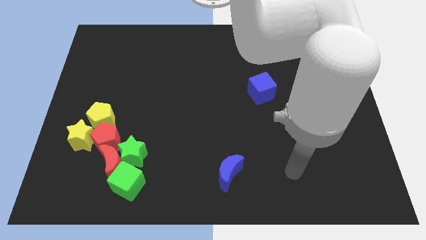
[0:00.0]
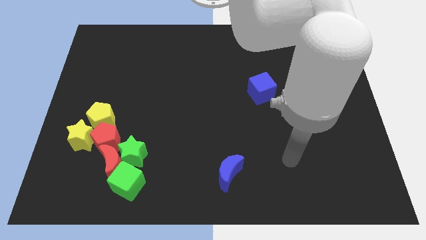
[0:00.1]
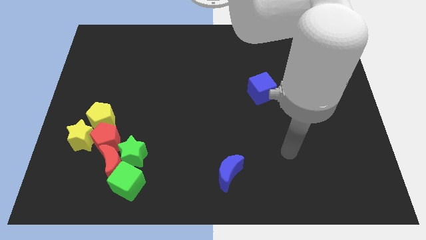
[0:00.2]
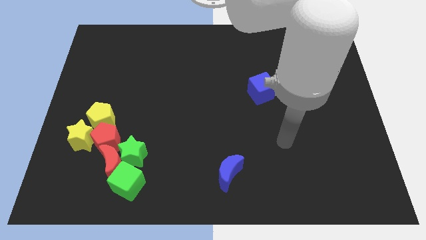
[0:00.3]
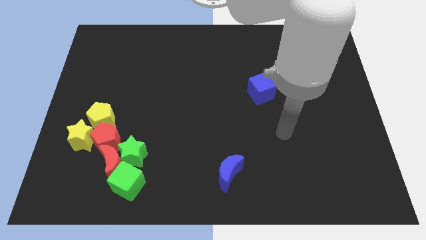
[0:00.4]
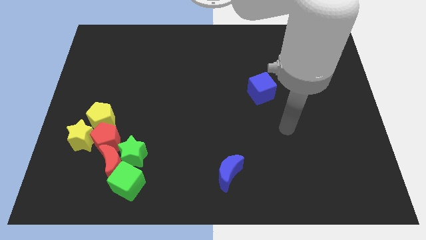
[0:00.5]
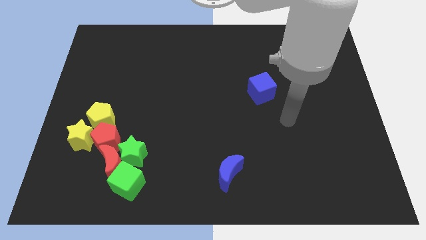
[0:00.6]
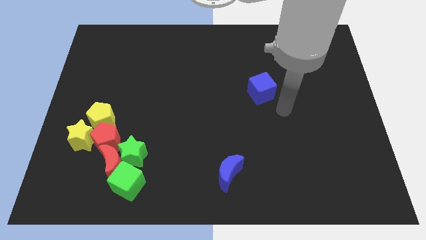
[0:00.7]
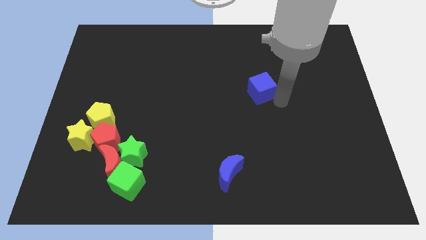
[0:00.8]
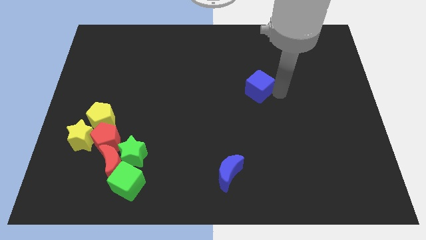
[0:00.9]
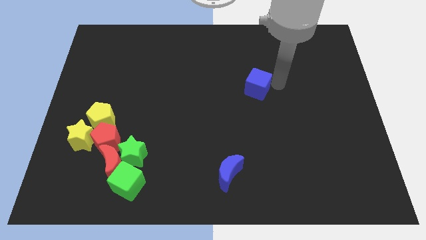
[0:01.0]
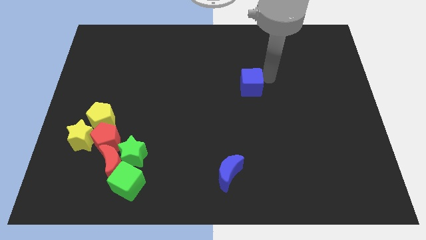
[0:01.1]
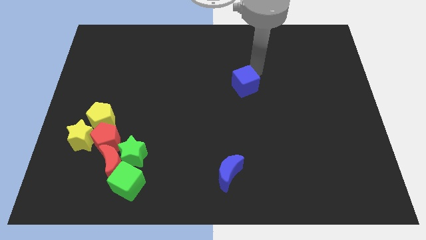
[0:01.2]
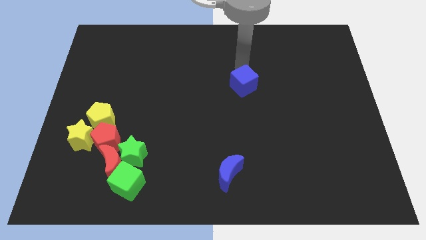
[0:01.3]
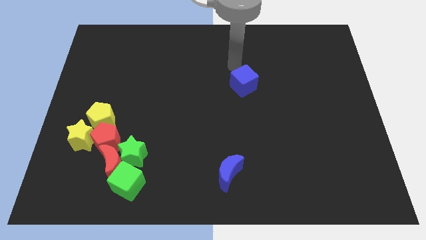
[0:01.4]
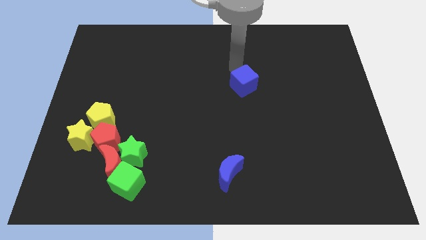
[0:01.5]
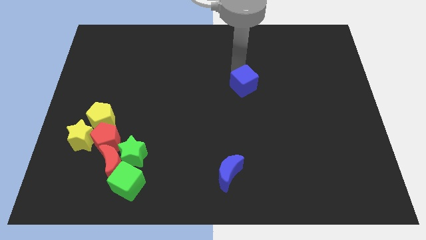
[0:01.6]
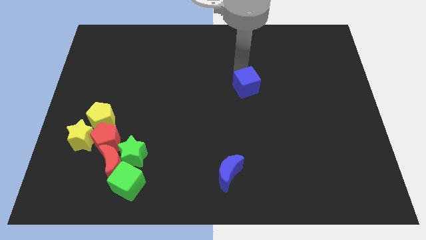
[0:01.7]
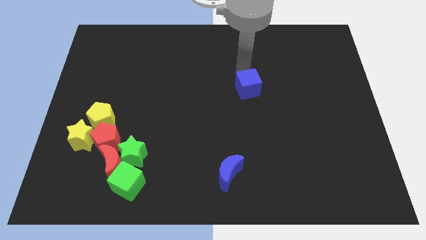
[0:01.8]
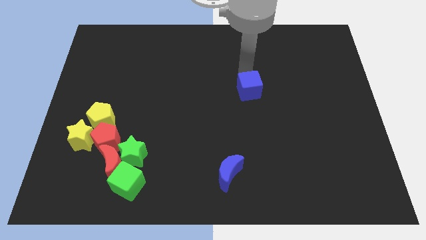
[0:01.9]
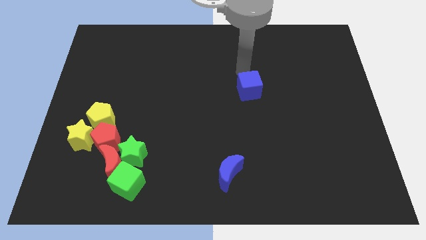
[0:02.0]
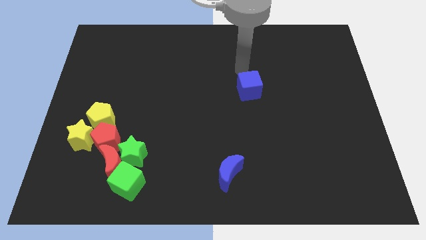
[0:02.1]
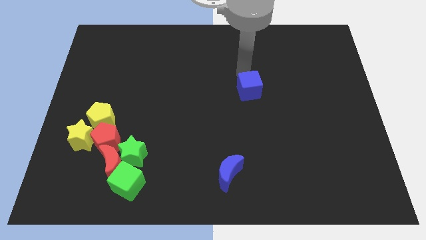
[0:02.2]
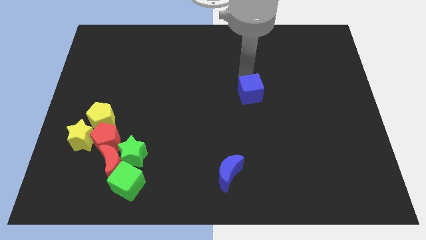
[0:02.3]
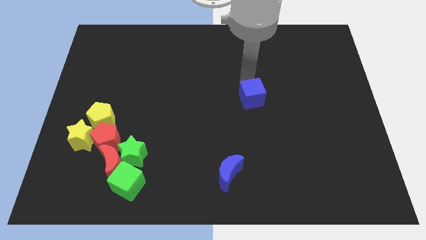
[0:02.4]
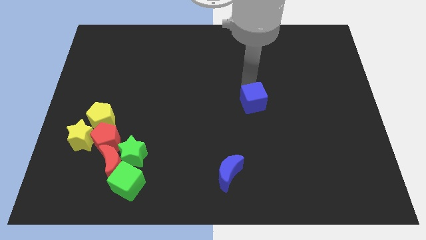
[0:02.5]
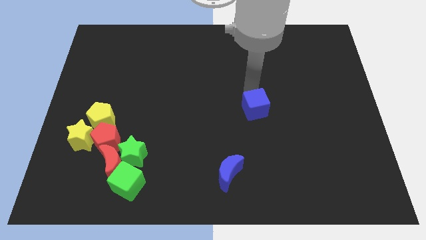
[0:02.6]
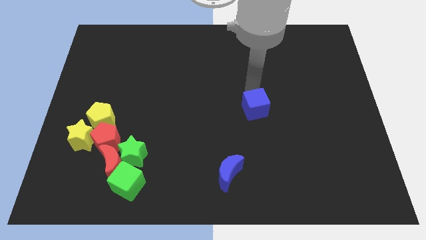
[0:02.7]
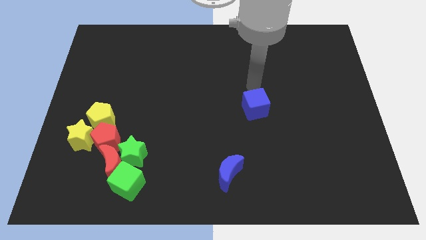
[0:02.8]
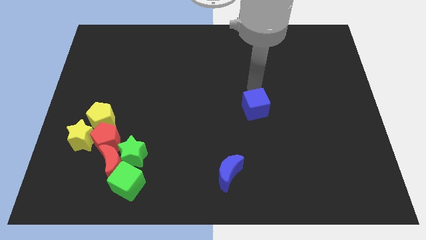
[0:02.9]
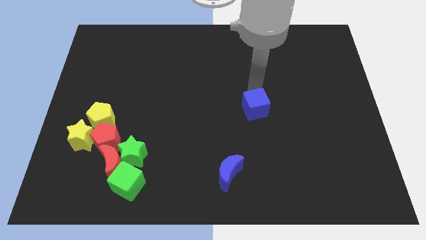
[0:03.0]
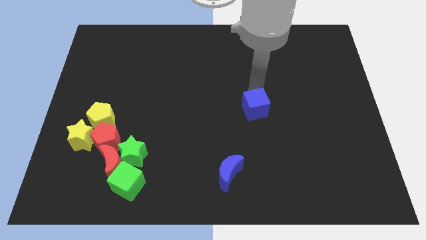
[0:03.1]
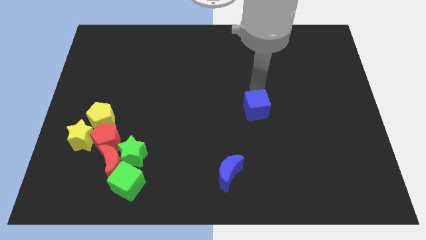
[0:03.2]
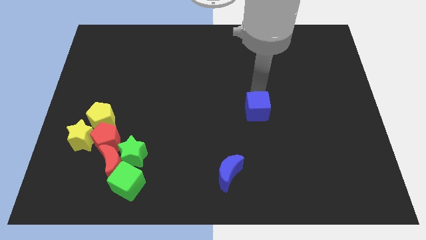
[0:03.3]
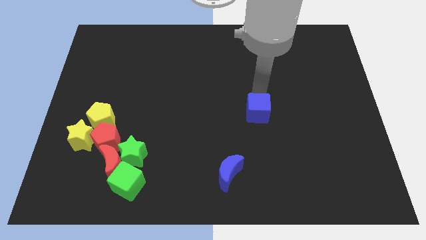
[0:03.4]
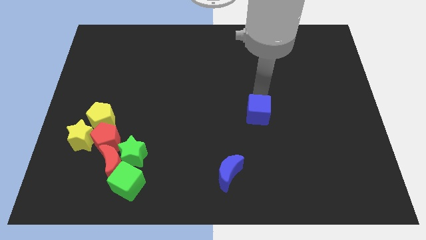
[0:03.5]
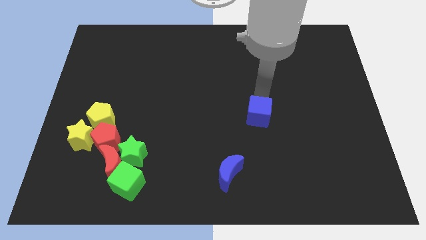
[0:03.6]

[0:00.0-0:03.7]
slide the blue cube a little down

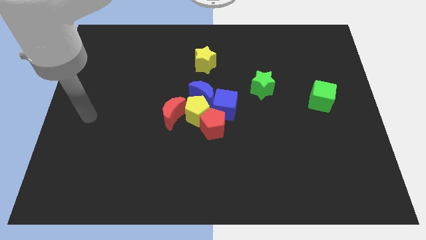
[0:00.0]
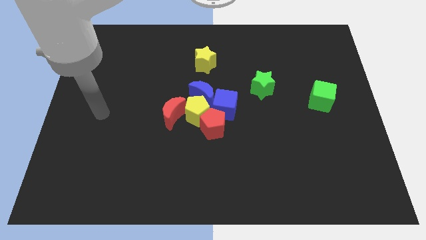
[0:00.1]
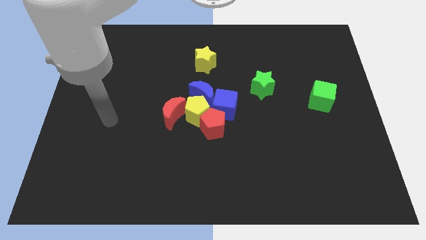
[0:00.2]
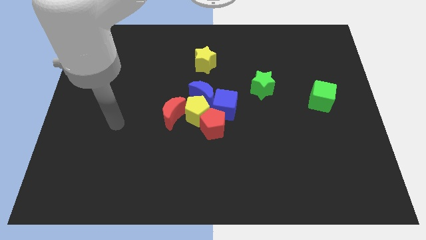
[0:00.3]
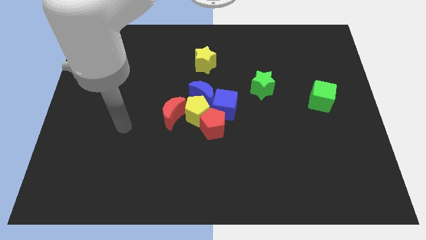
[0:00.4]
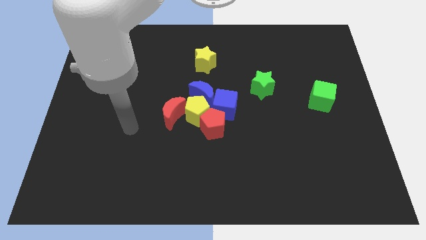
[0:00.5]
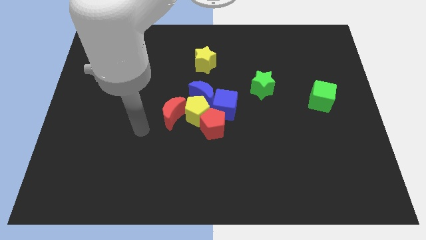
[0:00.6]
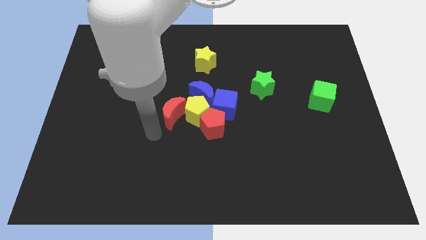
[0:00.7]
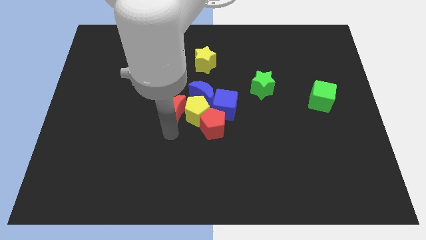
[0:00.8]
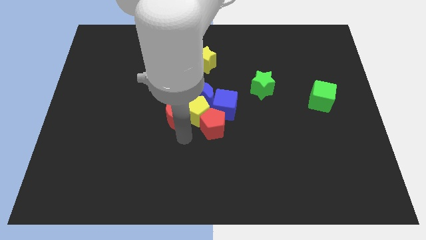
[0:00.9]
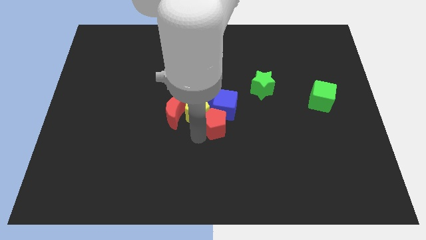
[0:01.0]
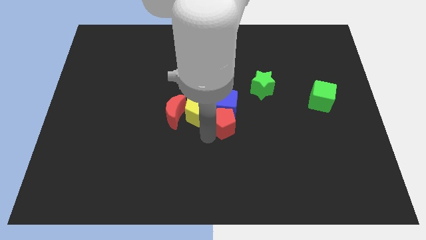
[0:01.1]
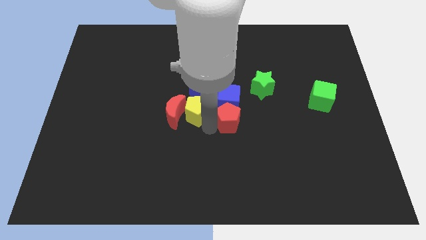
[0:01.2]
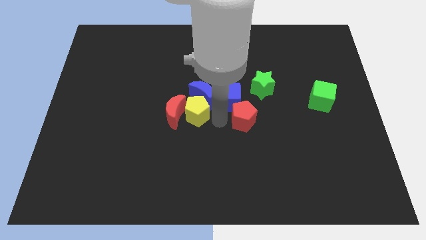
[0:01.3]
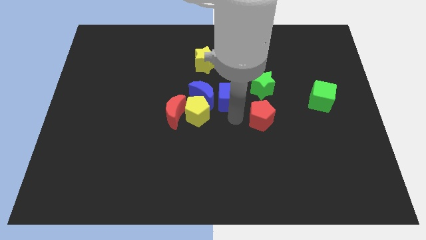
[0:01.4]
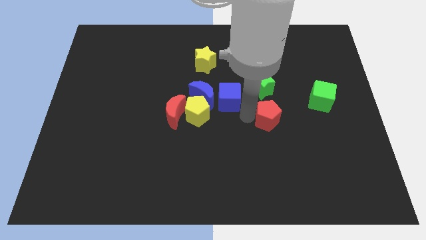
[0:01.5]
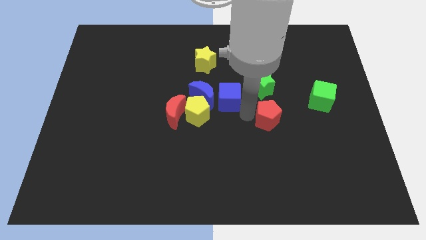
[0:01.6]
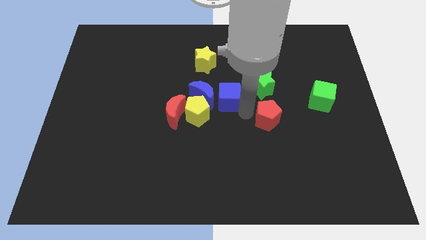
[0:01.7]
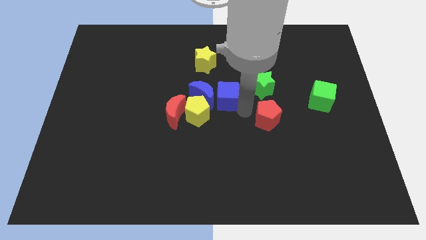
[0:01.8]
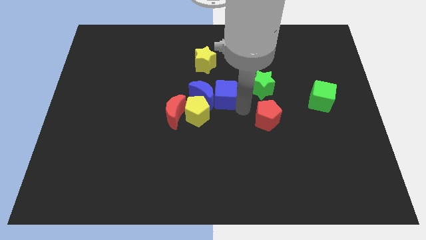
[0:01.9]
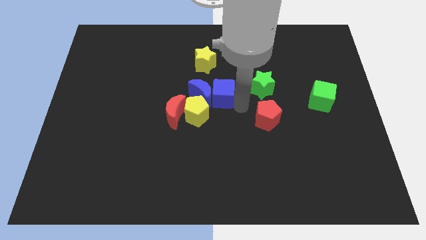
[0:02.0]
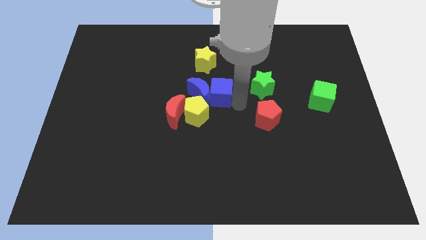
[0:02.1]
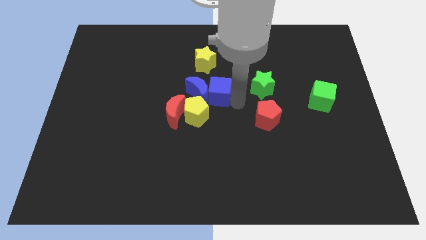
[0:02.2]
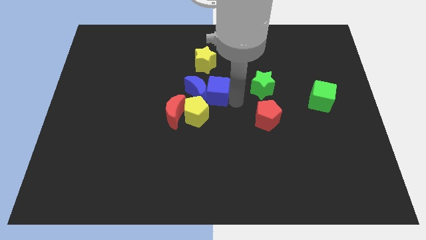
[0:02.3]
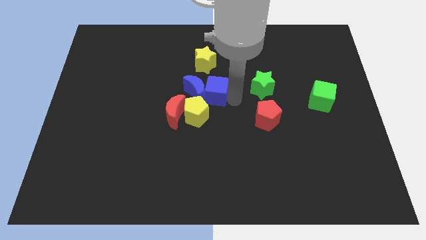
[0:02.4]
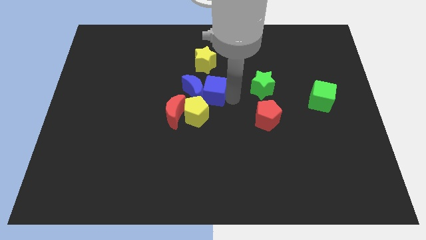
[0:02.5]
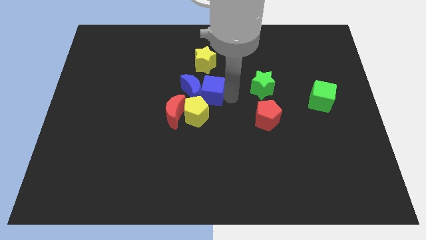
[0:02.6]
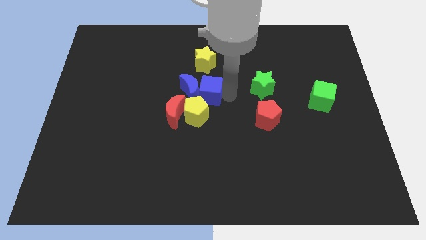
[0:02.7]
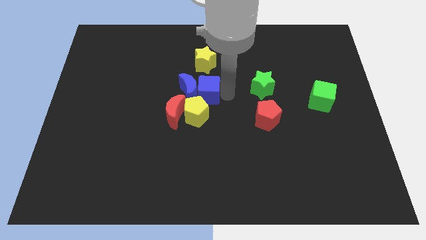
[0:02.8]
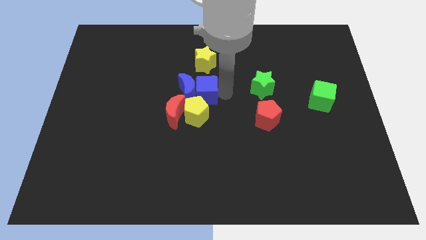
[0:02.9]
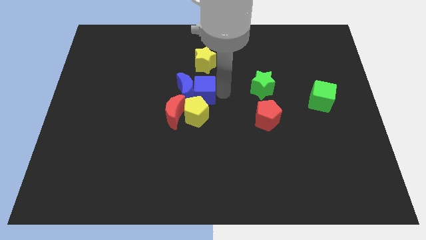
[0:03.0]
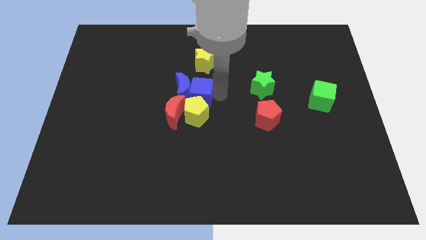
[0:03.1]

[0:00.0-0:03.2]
slide the blue cube diagonally upwards and to the left slightly

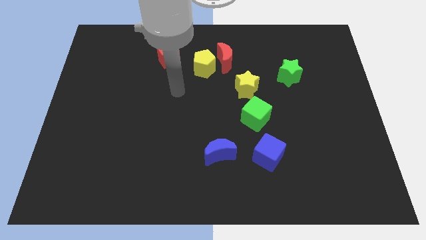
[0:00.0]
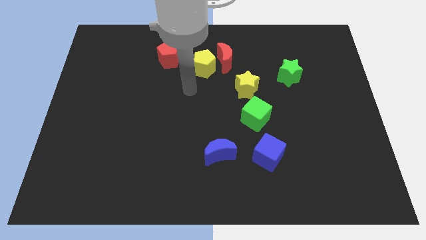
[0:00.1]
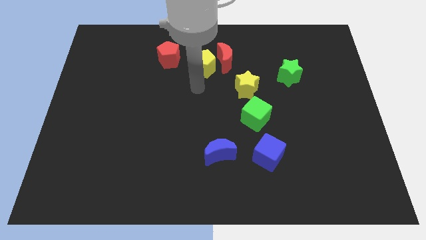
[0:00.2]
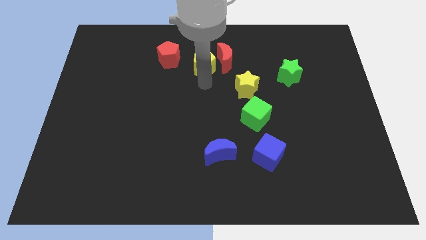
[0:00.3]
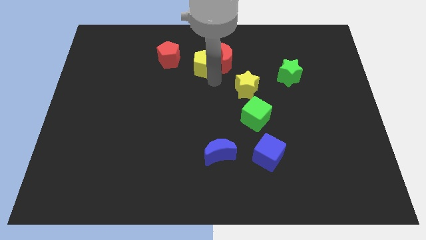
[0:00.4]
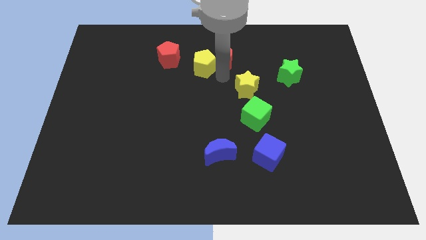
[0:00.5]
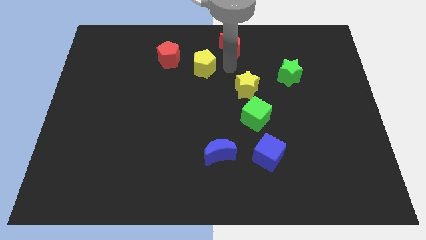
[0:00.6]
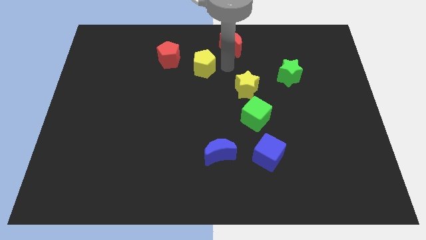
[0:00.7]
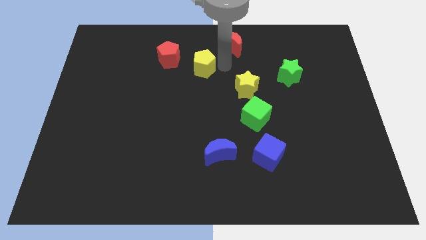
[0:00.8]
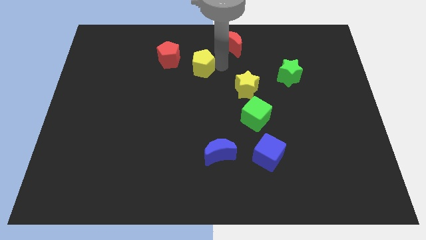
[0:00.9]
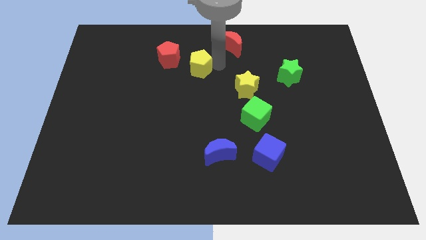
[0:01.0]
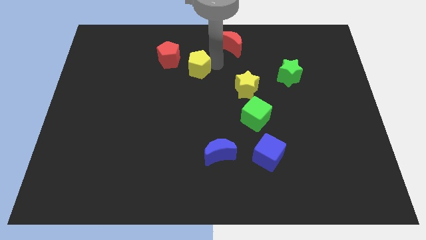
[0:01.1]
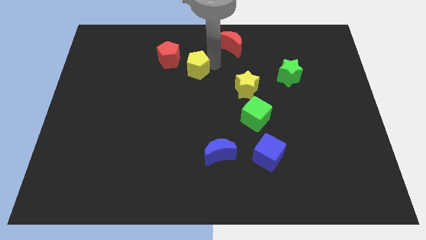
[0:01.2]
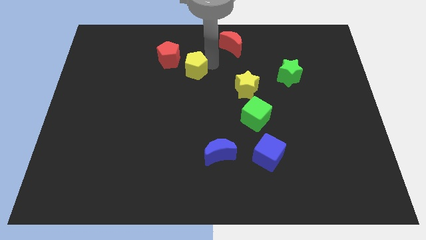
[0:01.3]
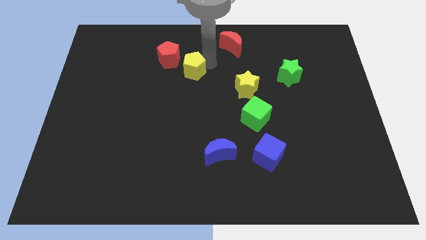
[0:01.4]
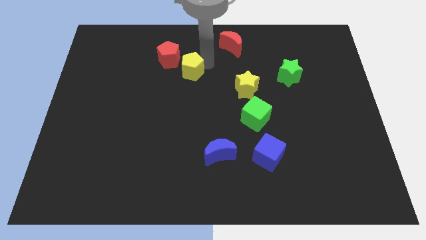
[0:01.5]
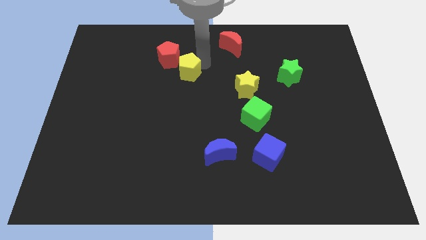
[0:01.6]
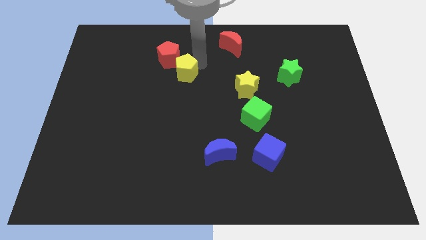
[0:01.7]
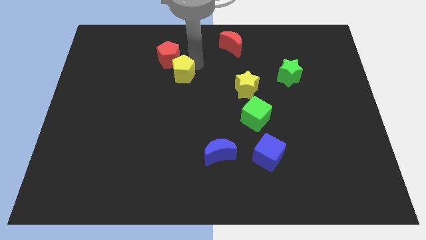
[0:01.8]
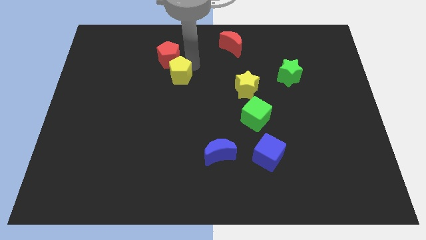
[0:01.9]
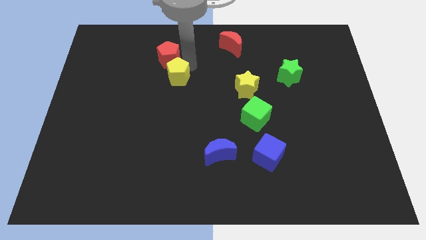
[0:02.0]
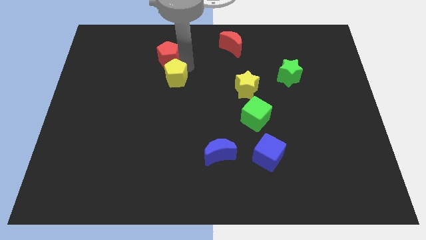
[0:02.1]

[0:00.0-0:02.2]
slide the yellow pentagon left somewhat
